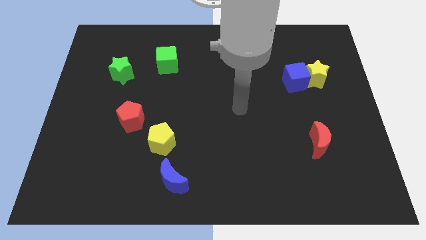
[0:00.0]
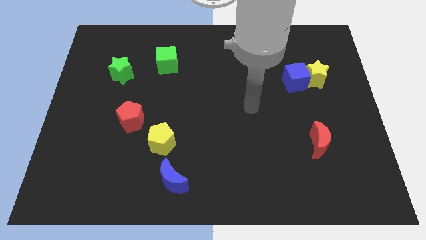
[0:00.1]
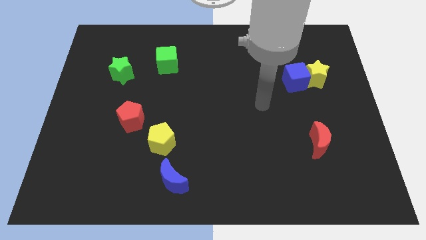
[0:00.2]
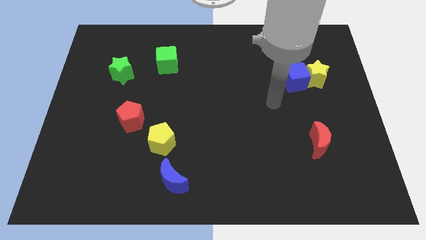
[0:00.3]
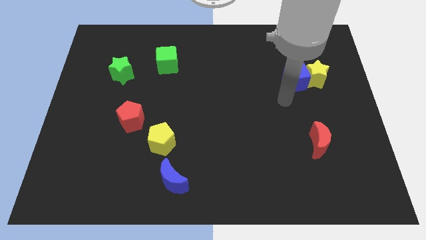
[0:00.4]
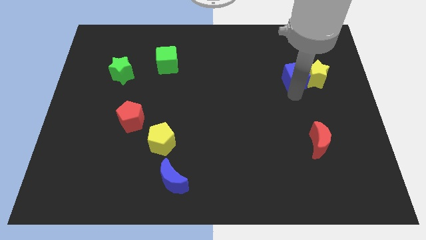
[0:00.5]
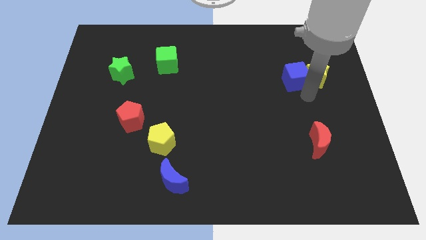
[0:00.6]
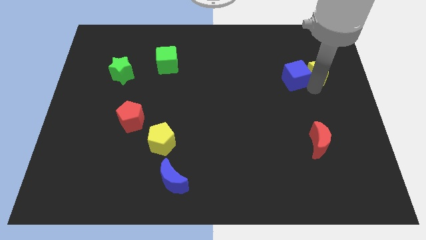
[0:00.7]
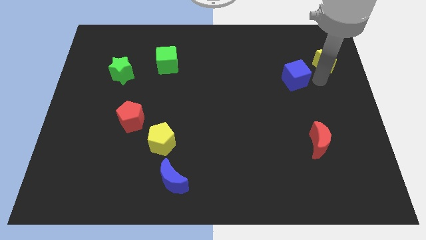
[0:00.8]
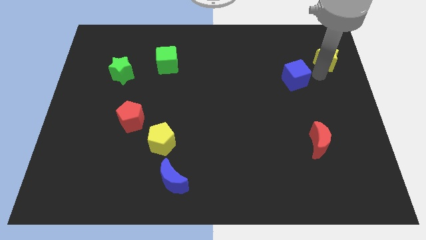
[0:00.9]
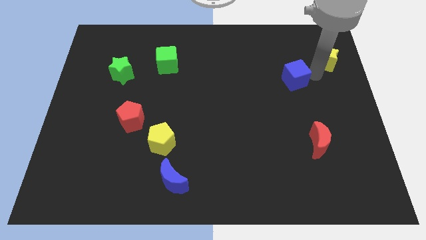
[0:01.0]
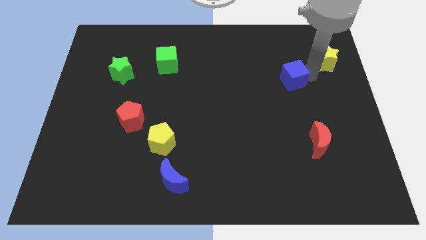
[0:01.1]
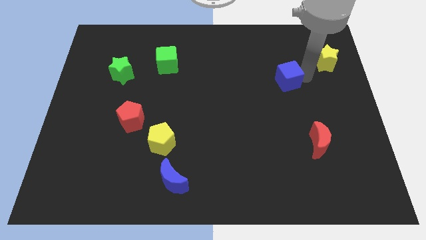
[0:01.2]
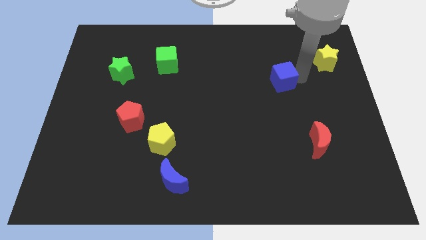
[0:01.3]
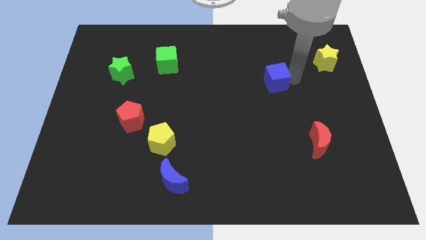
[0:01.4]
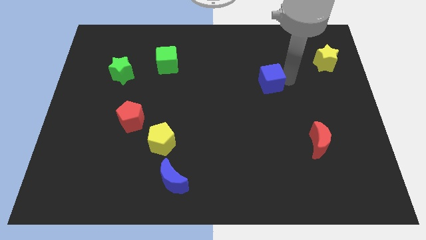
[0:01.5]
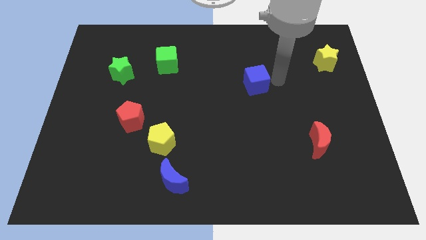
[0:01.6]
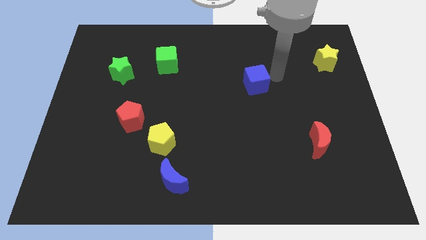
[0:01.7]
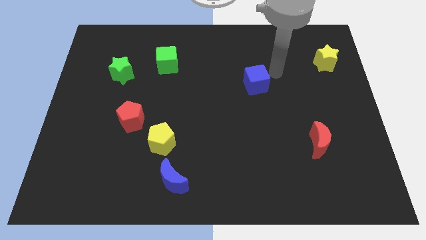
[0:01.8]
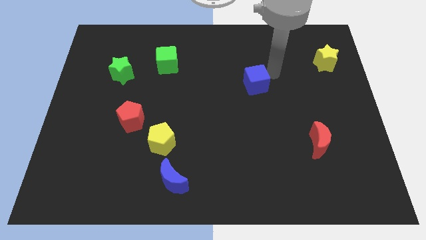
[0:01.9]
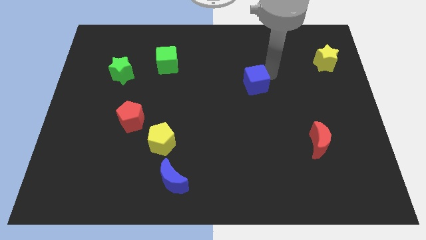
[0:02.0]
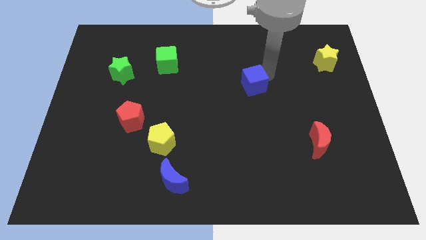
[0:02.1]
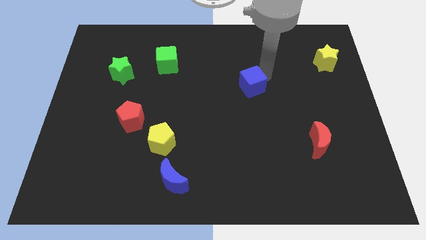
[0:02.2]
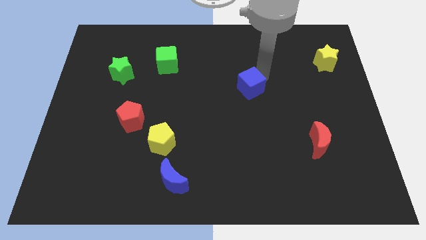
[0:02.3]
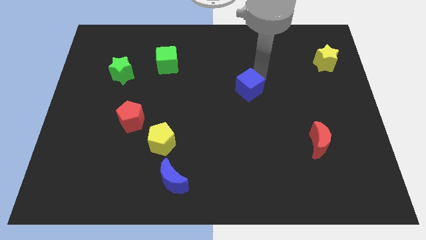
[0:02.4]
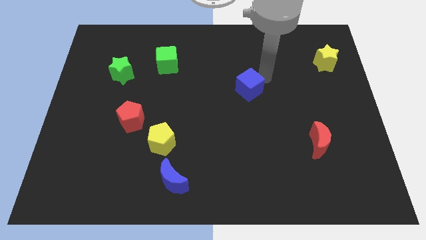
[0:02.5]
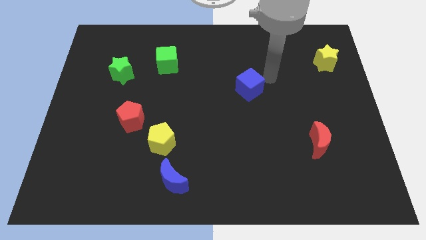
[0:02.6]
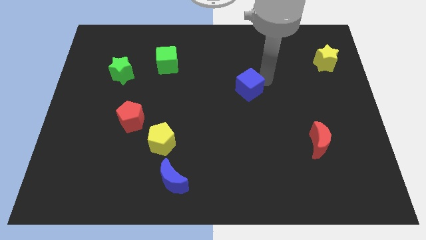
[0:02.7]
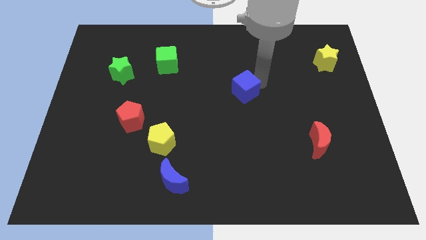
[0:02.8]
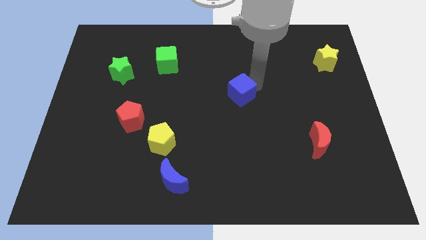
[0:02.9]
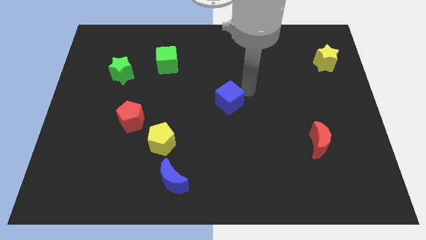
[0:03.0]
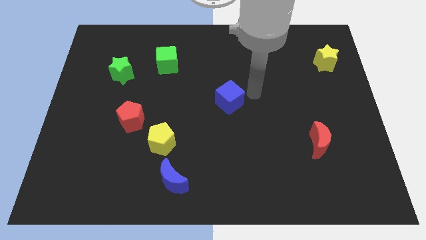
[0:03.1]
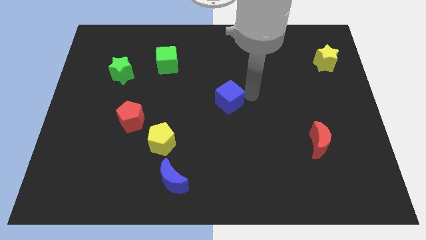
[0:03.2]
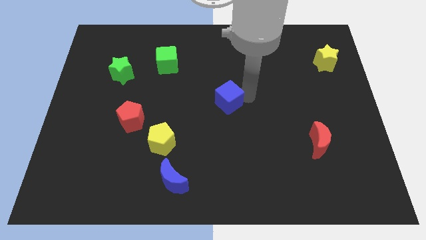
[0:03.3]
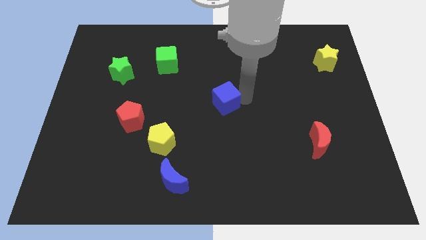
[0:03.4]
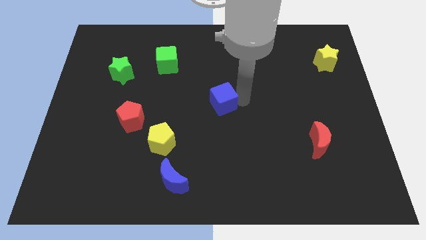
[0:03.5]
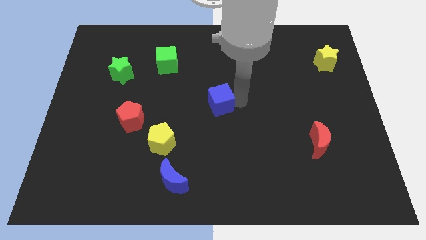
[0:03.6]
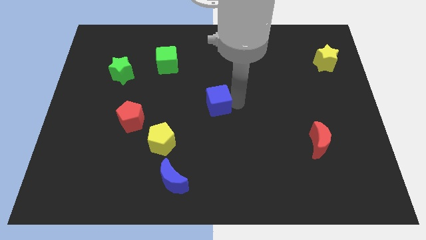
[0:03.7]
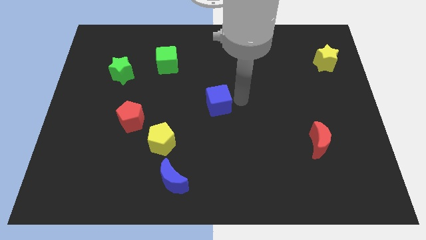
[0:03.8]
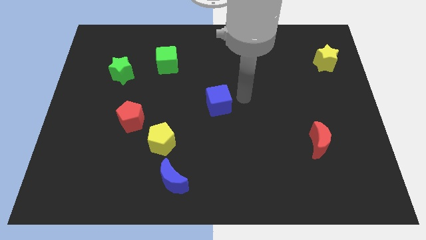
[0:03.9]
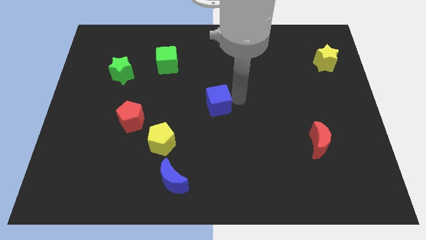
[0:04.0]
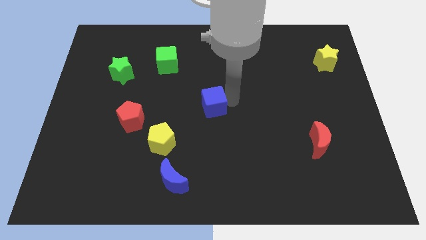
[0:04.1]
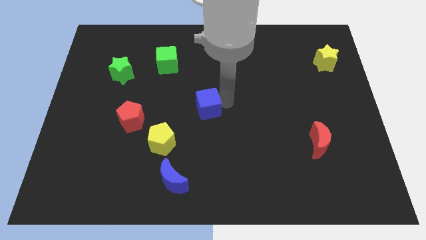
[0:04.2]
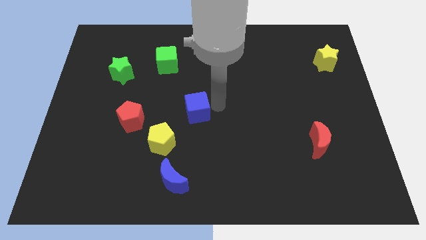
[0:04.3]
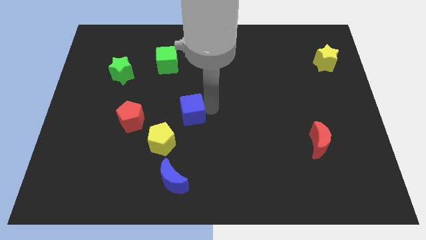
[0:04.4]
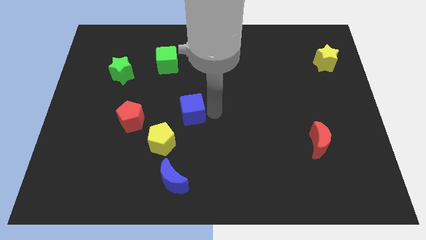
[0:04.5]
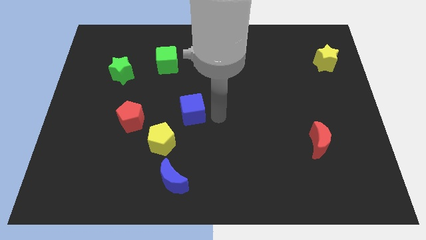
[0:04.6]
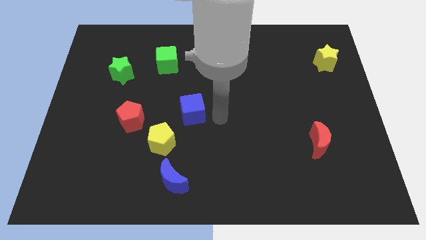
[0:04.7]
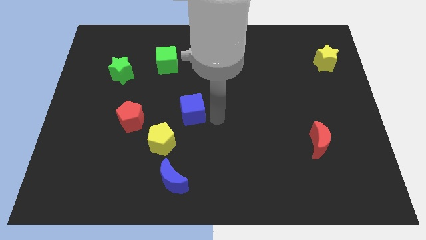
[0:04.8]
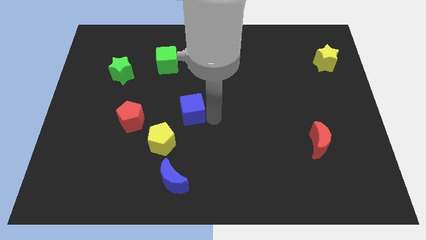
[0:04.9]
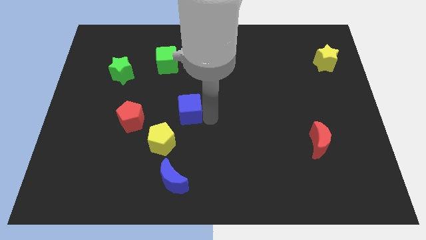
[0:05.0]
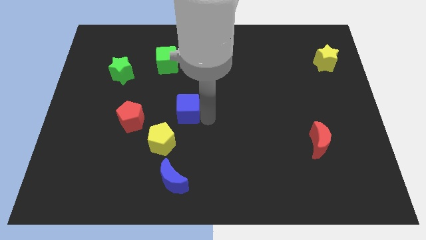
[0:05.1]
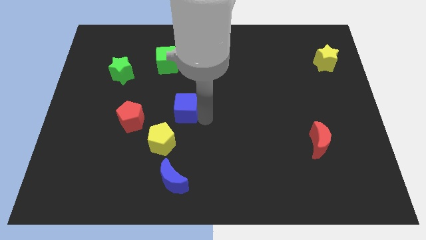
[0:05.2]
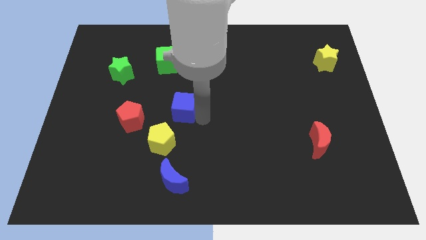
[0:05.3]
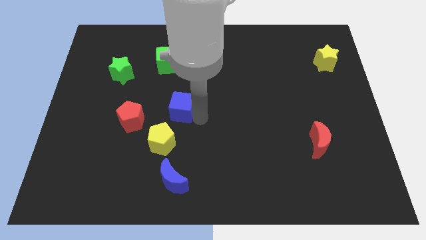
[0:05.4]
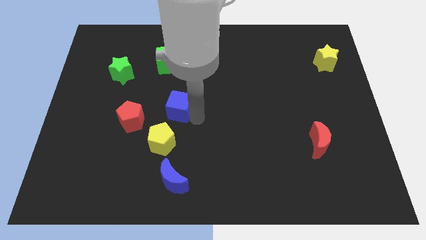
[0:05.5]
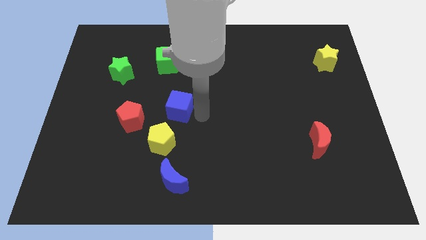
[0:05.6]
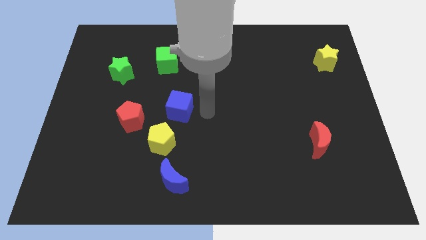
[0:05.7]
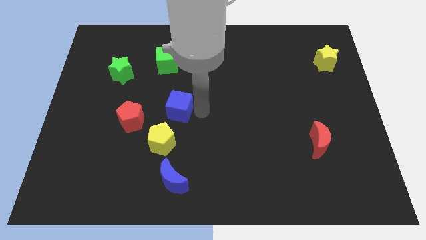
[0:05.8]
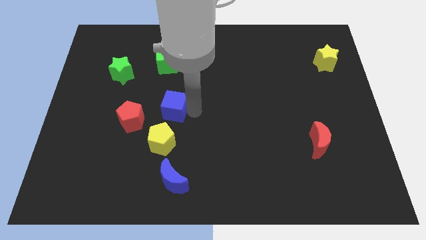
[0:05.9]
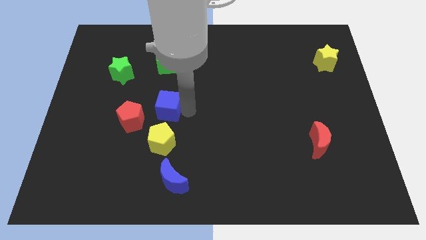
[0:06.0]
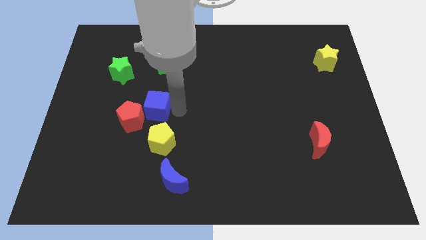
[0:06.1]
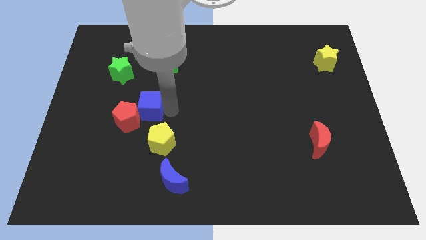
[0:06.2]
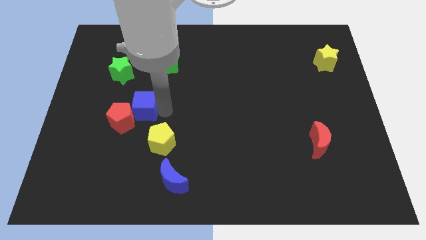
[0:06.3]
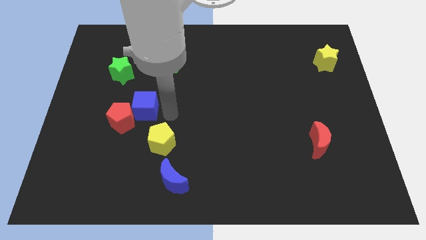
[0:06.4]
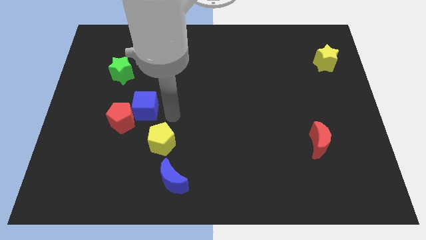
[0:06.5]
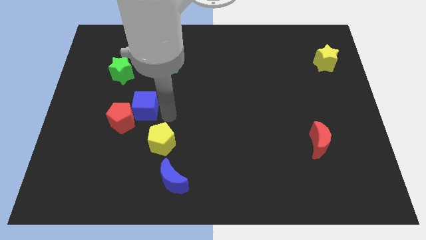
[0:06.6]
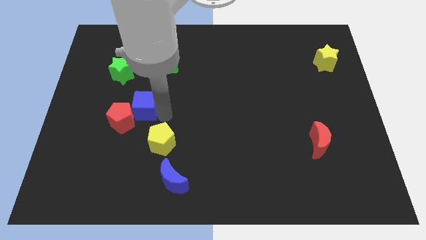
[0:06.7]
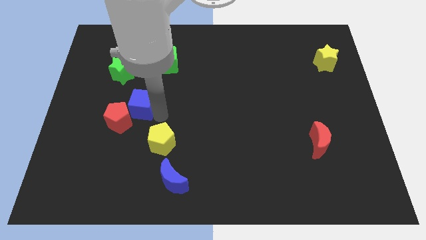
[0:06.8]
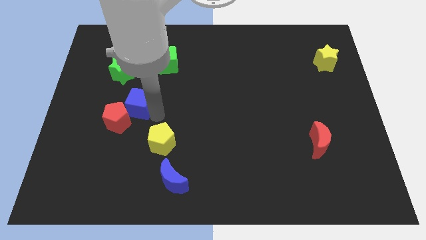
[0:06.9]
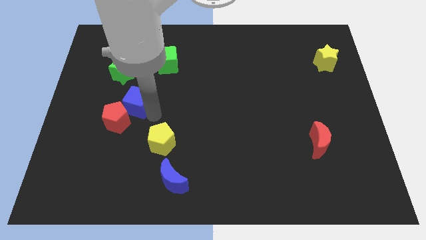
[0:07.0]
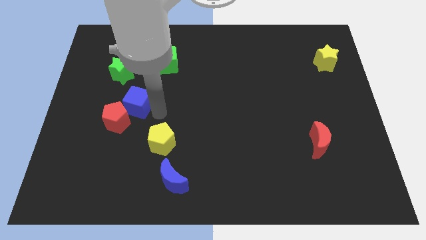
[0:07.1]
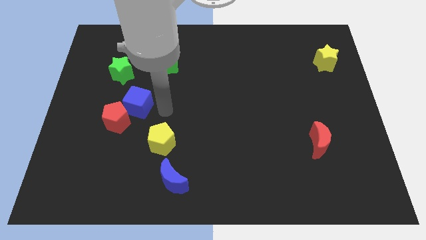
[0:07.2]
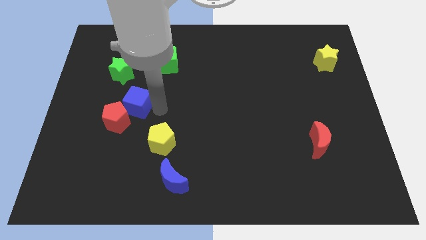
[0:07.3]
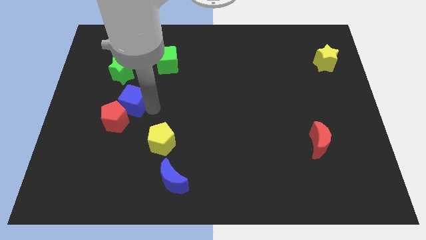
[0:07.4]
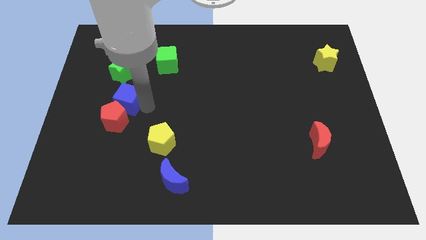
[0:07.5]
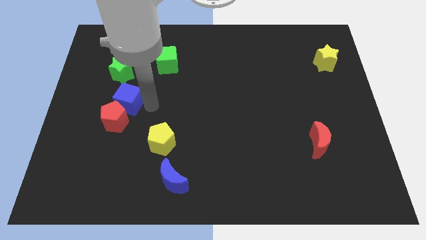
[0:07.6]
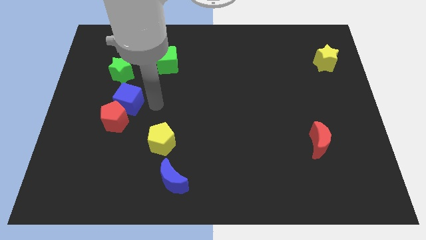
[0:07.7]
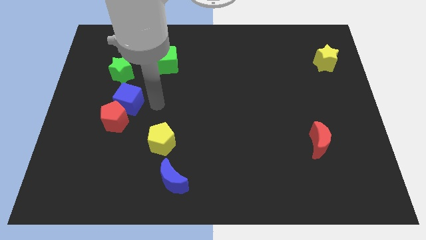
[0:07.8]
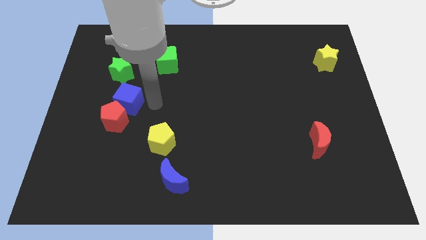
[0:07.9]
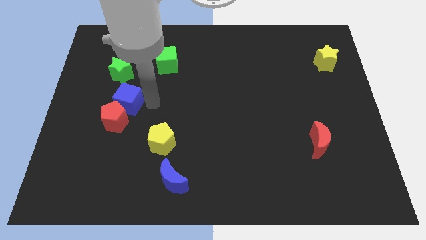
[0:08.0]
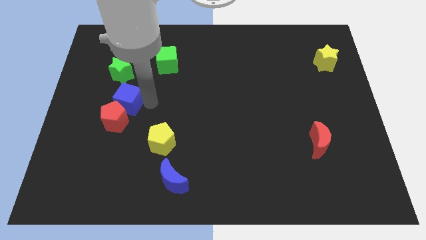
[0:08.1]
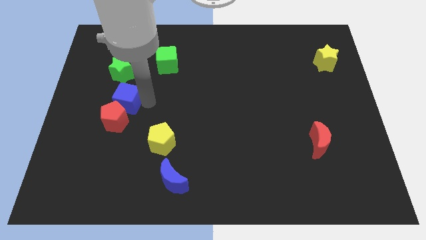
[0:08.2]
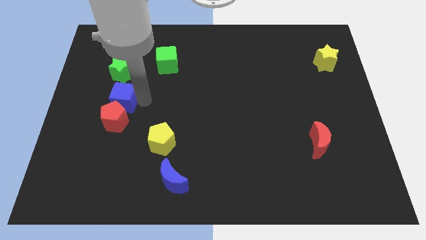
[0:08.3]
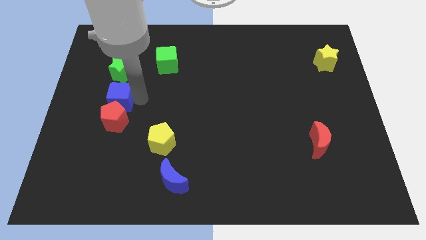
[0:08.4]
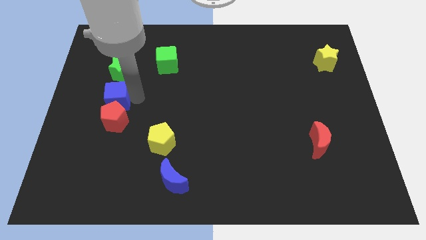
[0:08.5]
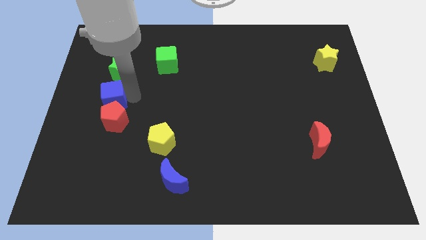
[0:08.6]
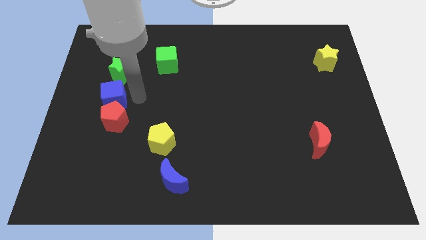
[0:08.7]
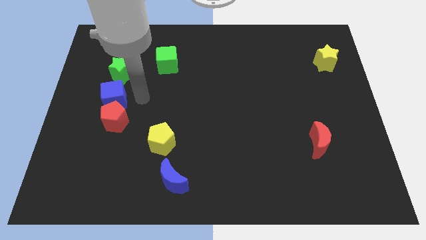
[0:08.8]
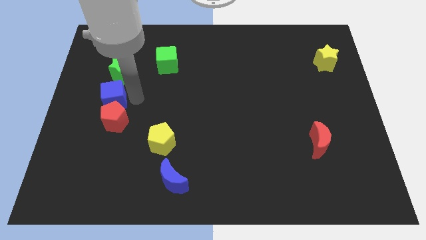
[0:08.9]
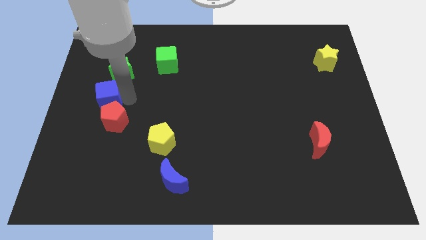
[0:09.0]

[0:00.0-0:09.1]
move the blue cube to the left side of the board
